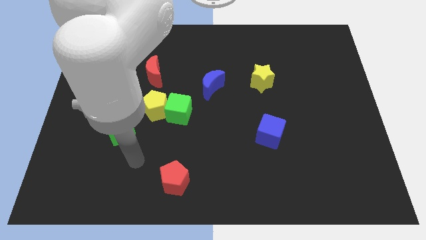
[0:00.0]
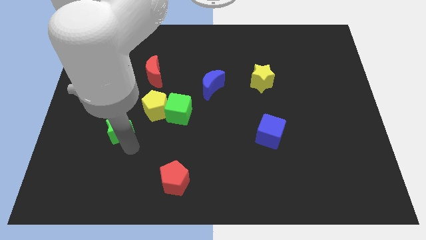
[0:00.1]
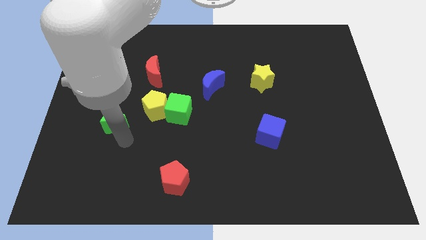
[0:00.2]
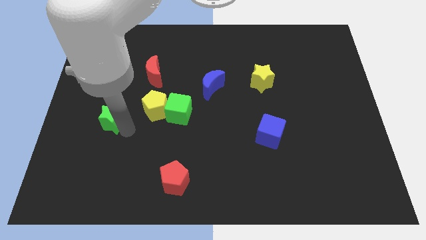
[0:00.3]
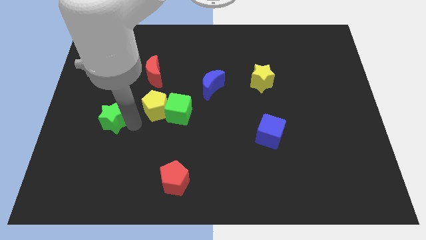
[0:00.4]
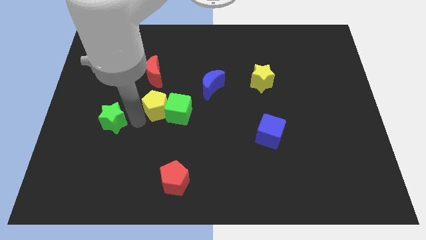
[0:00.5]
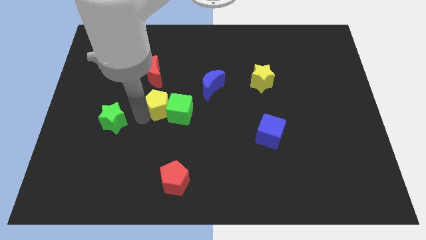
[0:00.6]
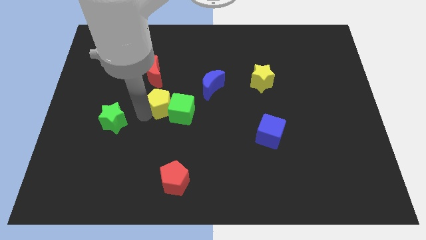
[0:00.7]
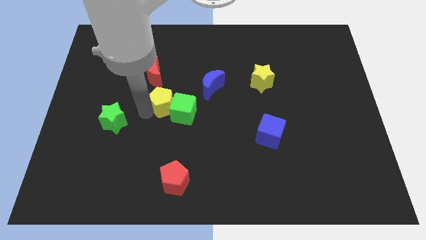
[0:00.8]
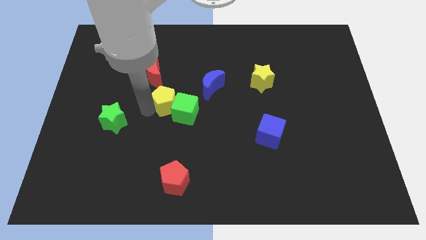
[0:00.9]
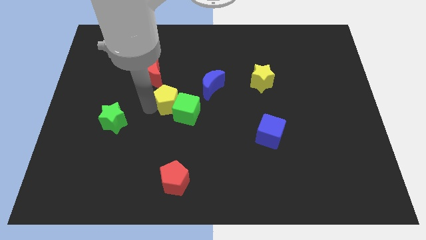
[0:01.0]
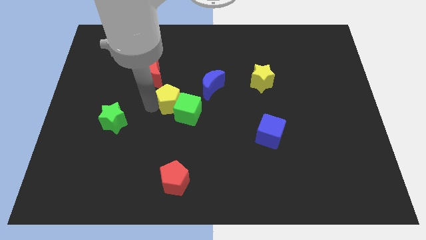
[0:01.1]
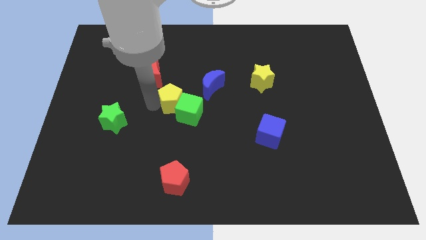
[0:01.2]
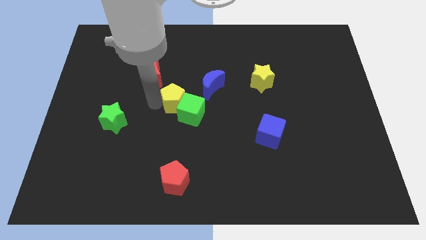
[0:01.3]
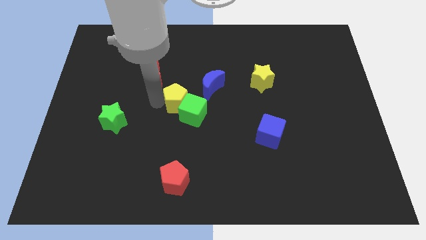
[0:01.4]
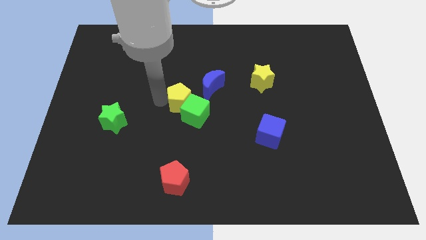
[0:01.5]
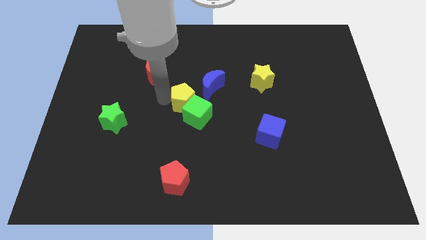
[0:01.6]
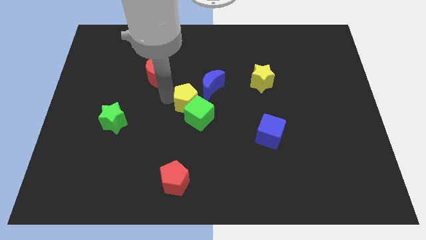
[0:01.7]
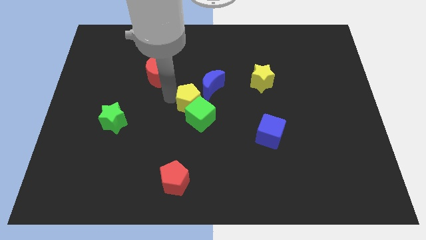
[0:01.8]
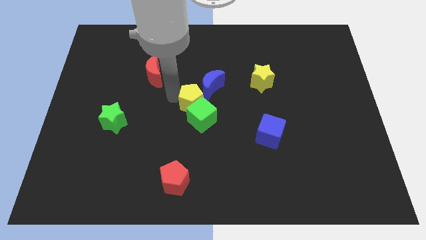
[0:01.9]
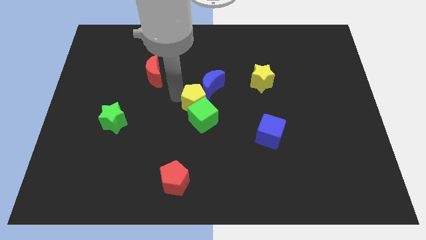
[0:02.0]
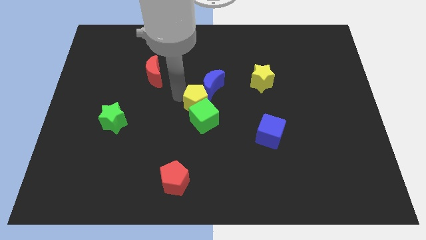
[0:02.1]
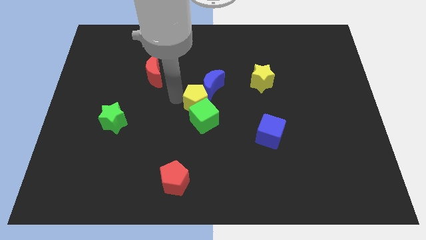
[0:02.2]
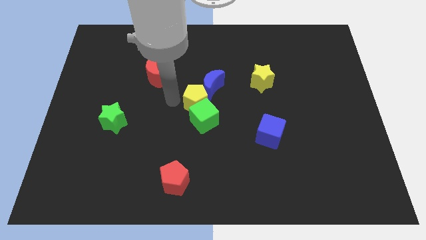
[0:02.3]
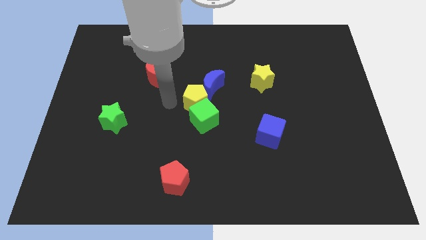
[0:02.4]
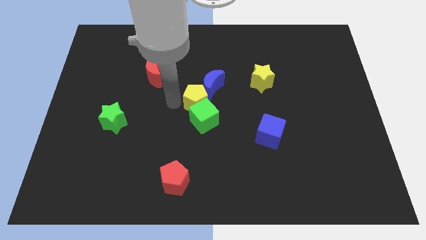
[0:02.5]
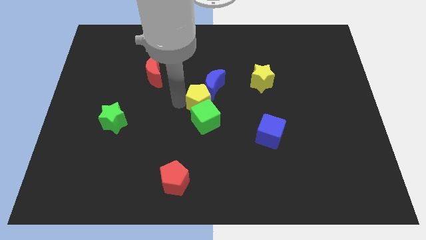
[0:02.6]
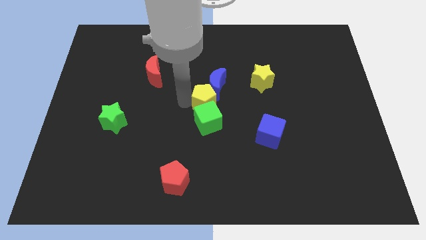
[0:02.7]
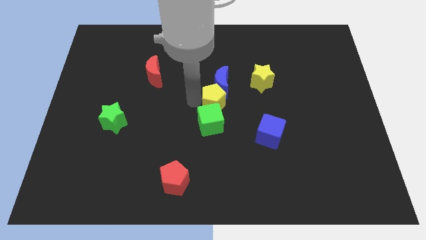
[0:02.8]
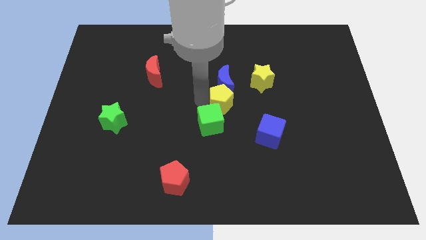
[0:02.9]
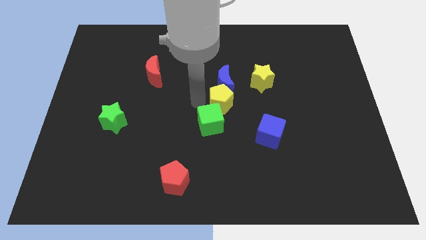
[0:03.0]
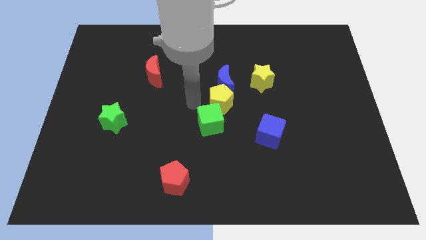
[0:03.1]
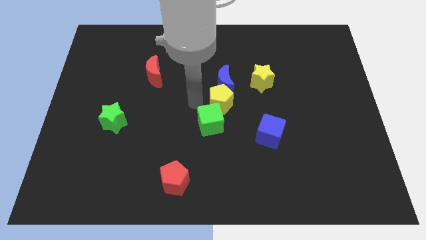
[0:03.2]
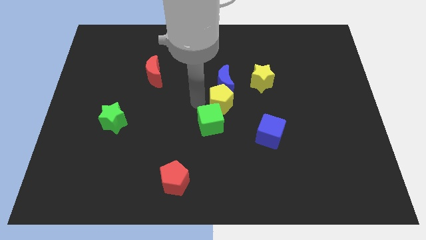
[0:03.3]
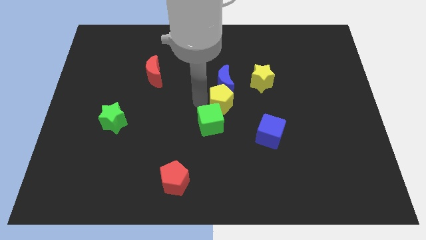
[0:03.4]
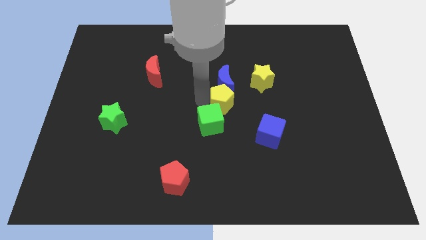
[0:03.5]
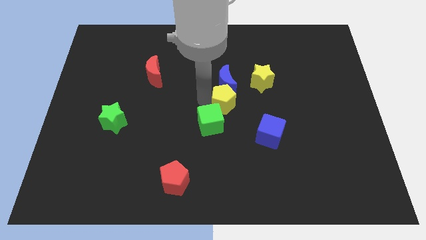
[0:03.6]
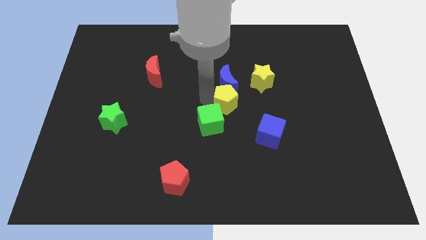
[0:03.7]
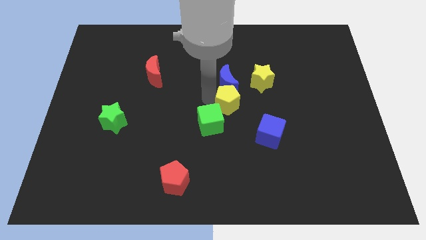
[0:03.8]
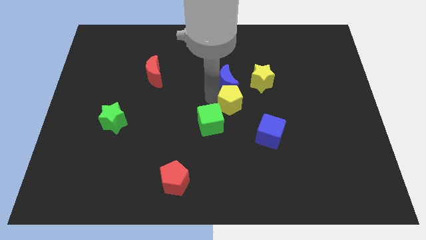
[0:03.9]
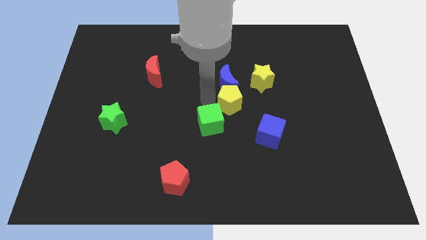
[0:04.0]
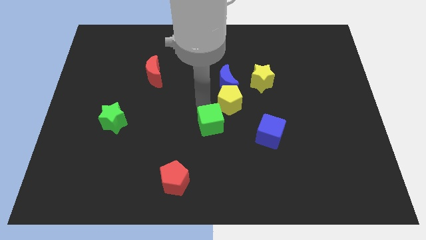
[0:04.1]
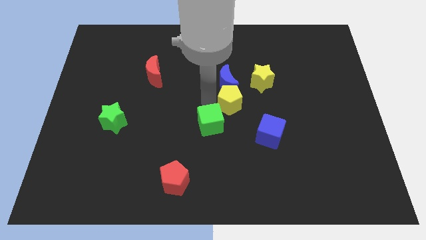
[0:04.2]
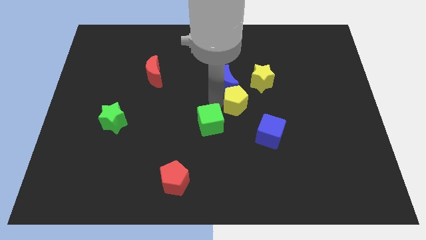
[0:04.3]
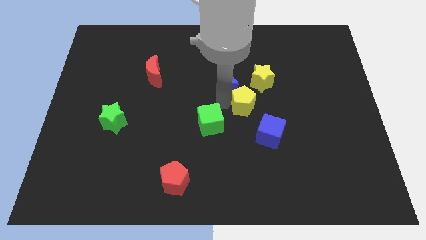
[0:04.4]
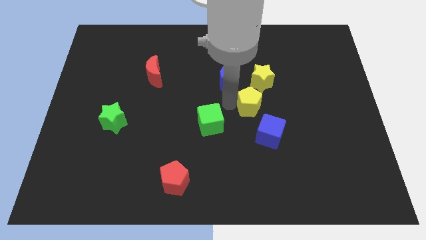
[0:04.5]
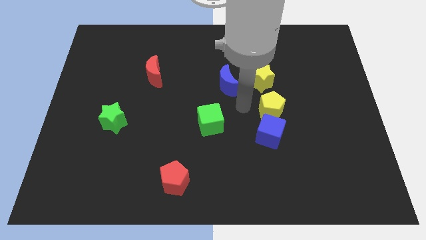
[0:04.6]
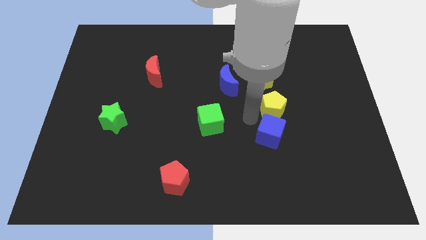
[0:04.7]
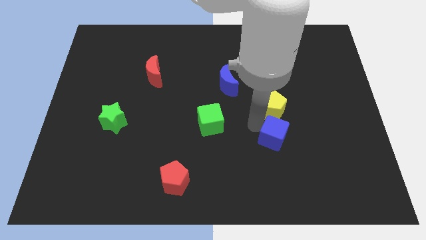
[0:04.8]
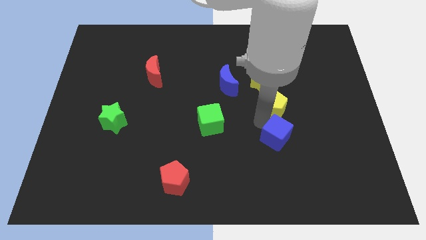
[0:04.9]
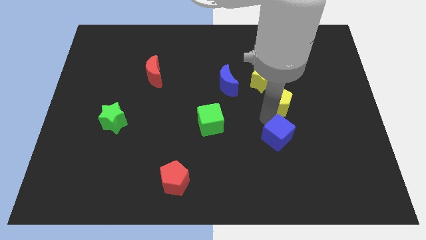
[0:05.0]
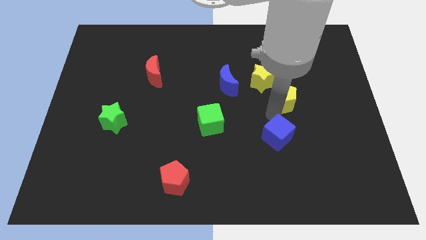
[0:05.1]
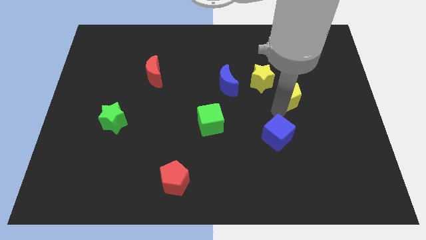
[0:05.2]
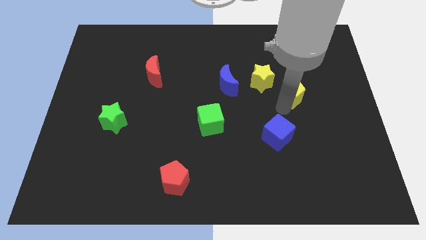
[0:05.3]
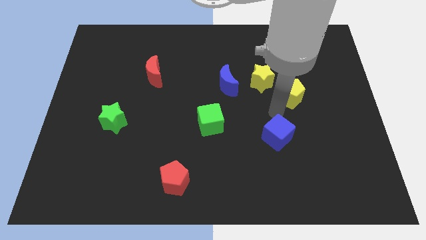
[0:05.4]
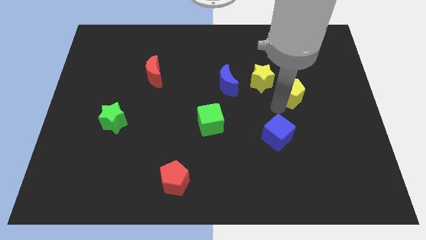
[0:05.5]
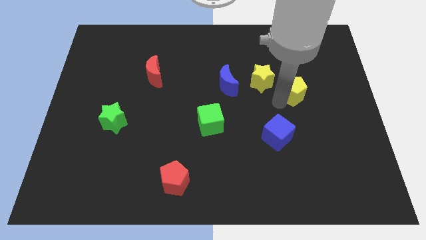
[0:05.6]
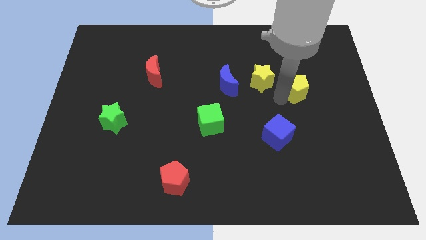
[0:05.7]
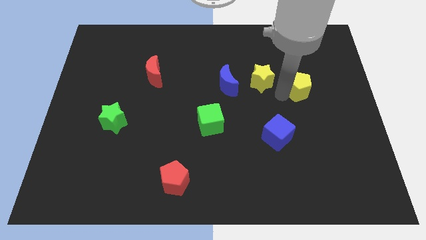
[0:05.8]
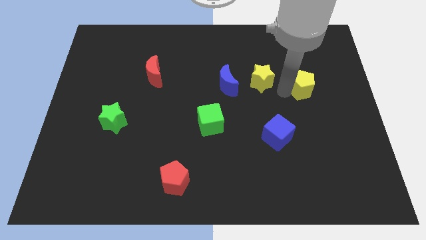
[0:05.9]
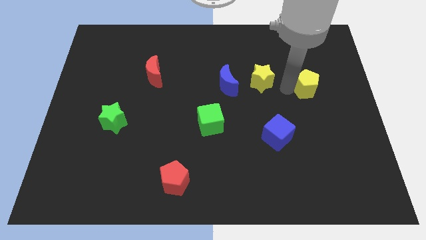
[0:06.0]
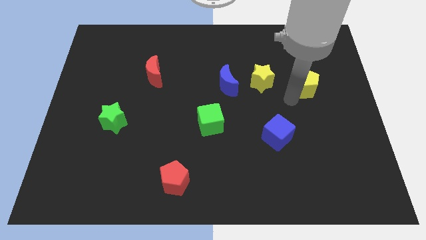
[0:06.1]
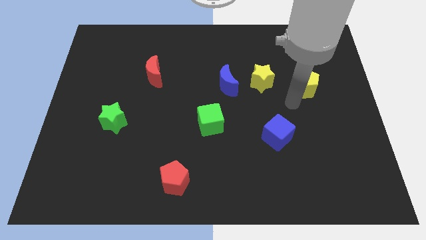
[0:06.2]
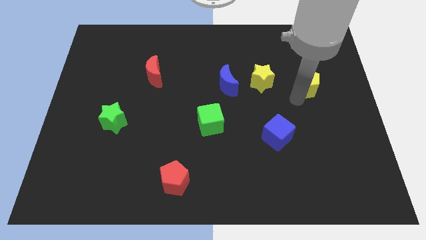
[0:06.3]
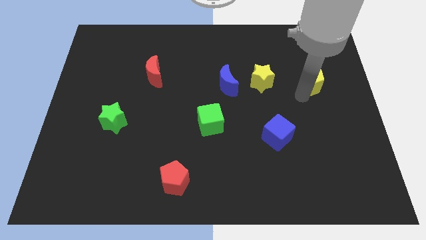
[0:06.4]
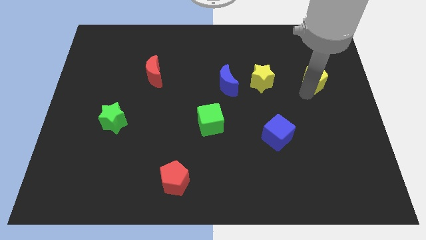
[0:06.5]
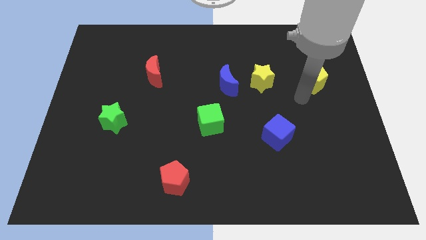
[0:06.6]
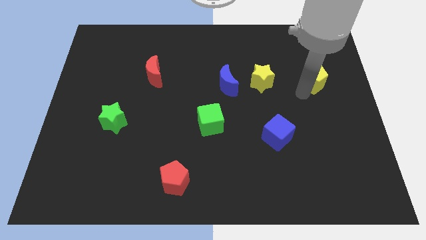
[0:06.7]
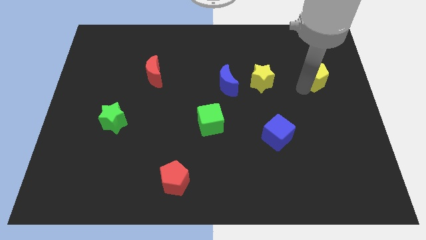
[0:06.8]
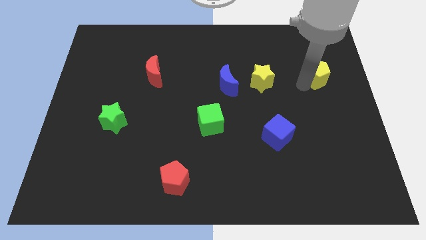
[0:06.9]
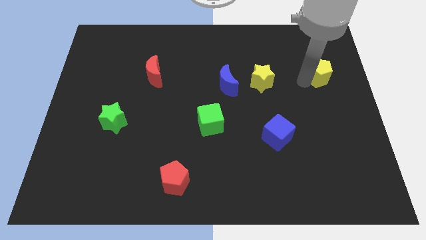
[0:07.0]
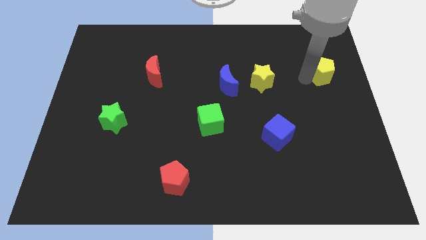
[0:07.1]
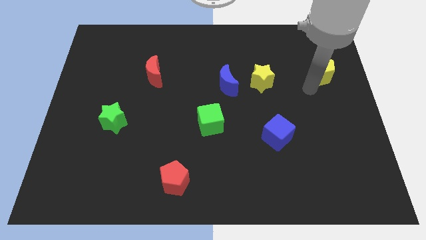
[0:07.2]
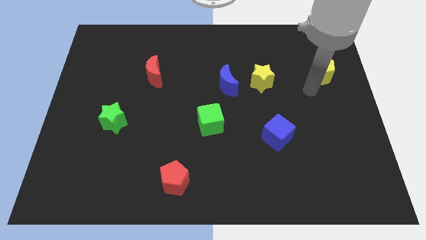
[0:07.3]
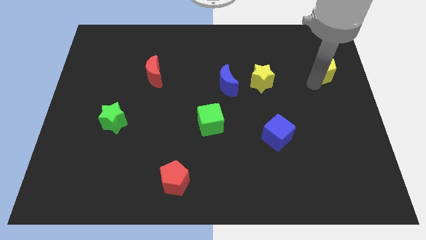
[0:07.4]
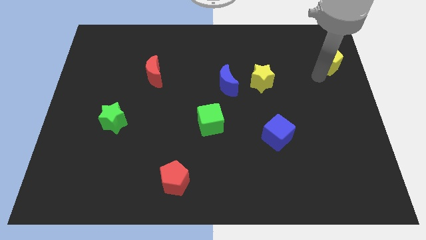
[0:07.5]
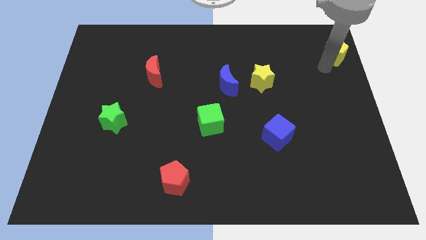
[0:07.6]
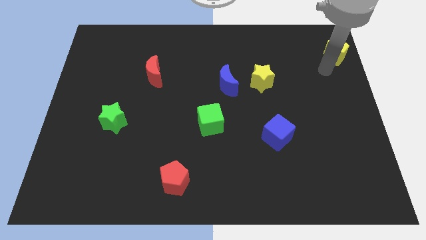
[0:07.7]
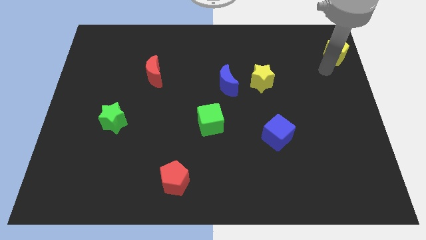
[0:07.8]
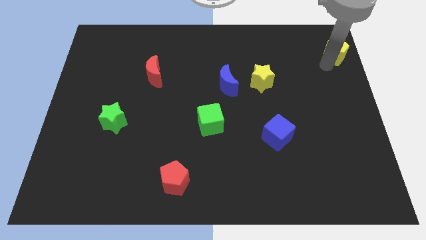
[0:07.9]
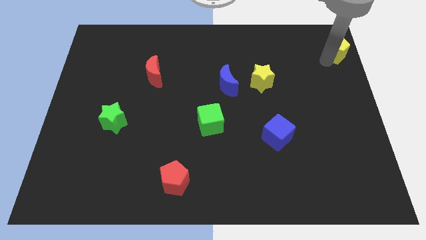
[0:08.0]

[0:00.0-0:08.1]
slide the yellow pentagon to the top right of the board
